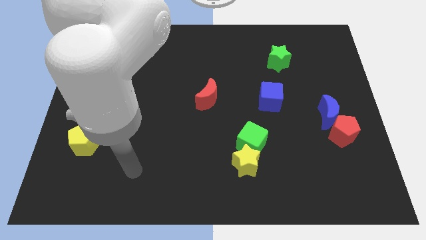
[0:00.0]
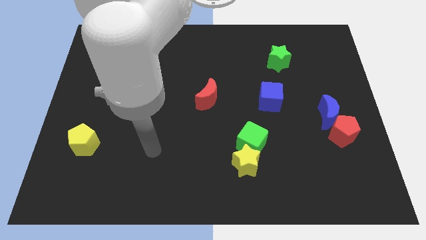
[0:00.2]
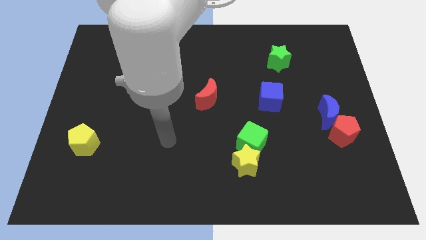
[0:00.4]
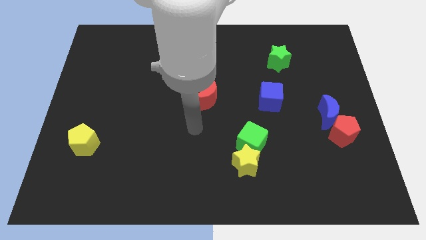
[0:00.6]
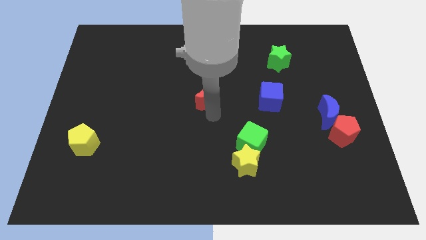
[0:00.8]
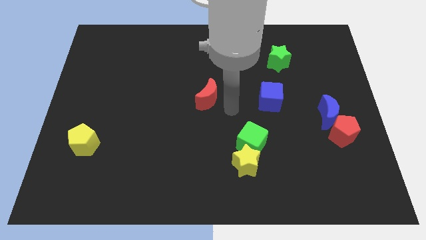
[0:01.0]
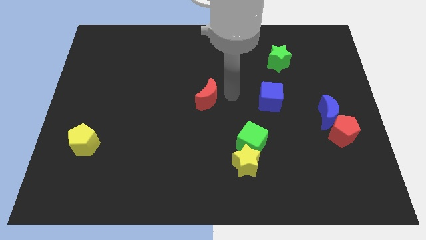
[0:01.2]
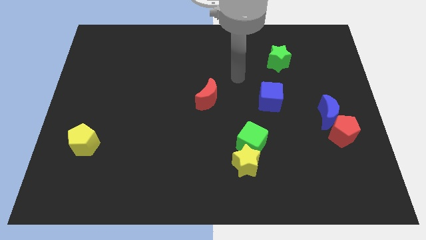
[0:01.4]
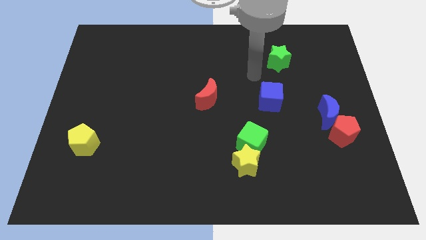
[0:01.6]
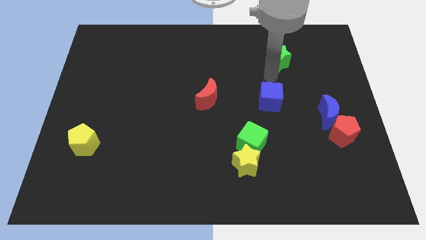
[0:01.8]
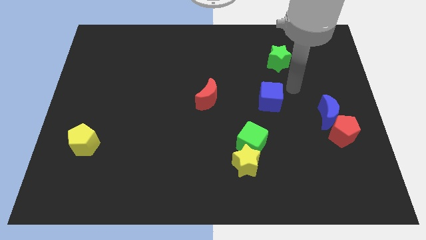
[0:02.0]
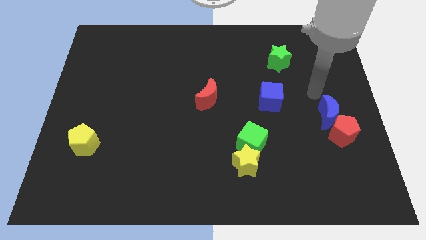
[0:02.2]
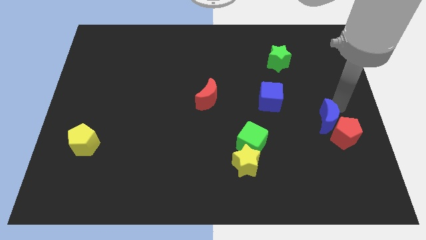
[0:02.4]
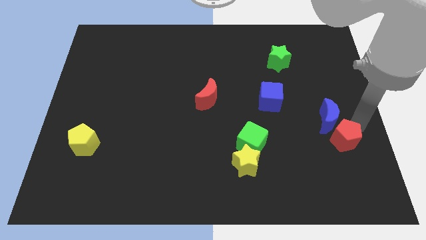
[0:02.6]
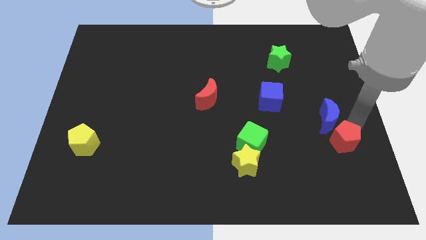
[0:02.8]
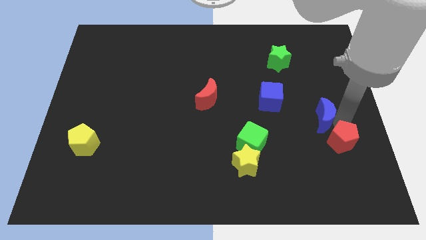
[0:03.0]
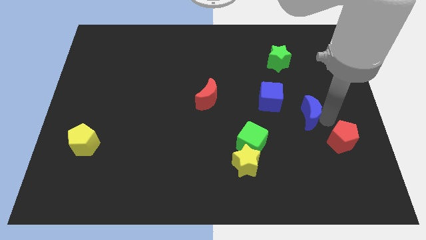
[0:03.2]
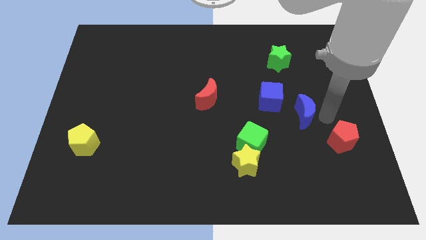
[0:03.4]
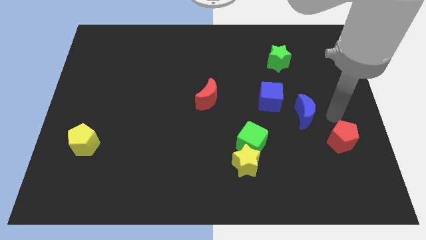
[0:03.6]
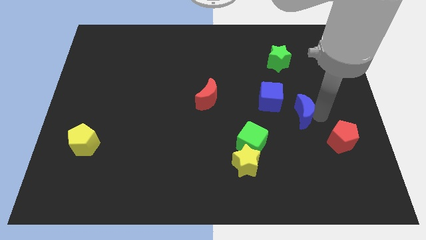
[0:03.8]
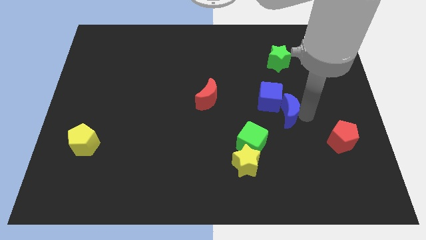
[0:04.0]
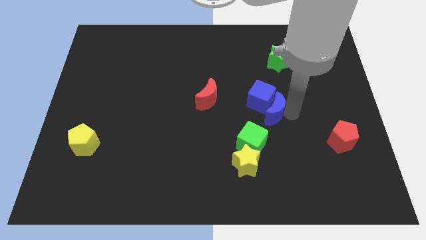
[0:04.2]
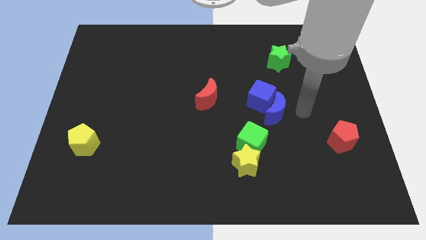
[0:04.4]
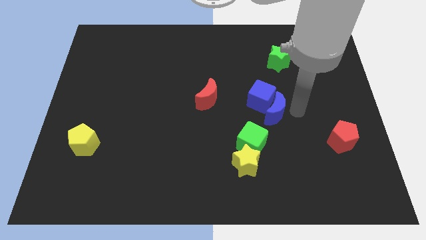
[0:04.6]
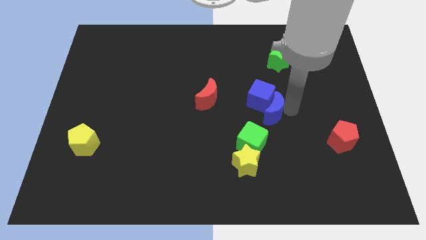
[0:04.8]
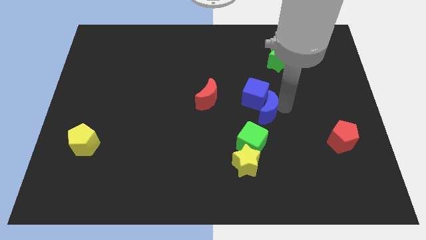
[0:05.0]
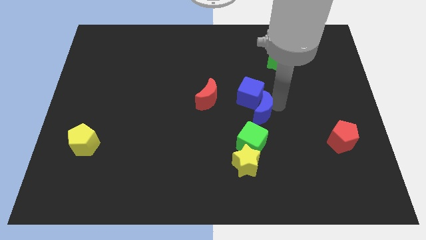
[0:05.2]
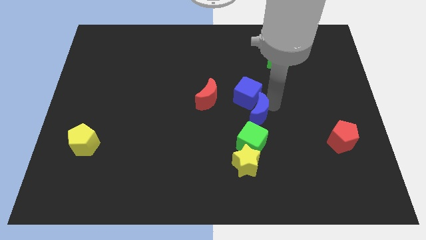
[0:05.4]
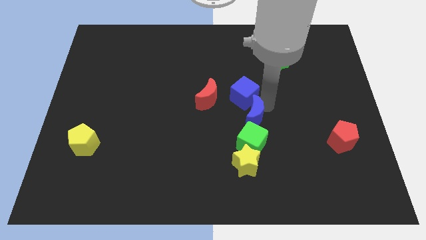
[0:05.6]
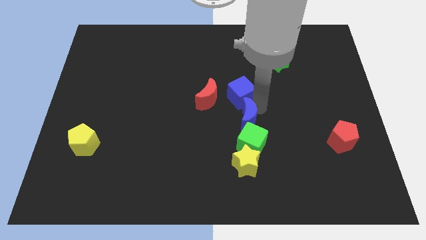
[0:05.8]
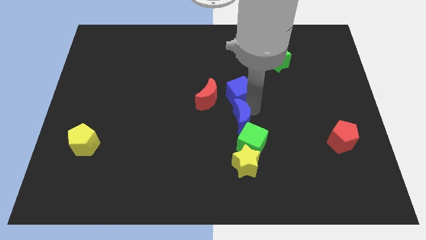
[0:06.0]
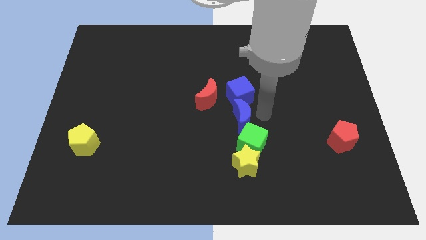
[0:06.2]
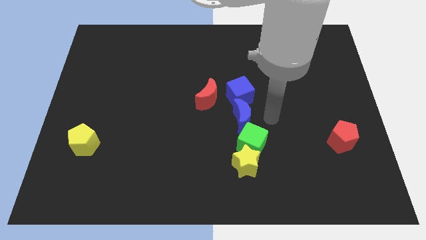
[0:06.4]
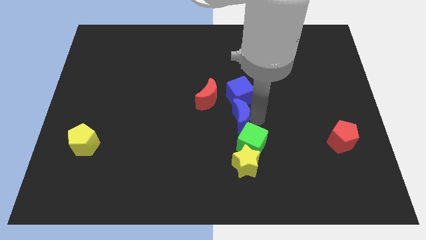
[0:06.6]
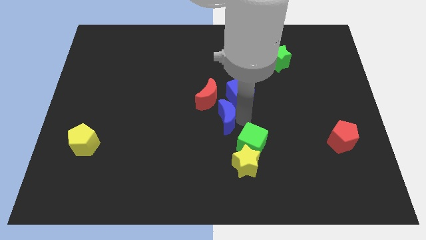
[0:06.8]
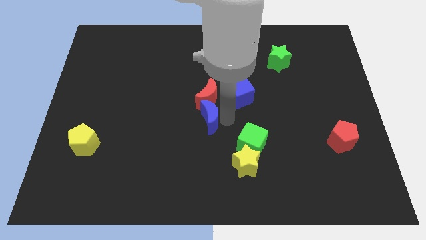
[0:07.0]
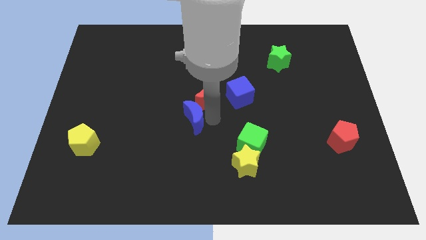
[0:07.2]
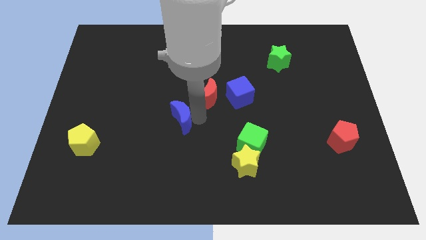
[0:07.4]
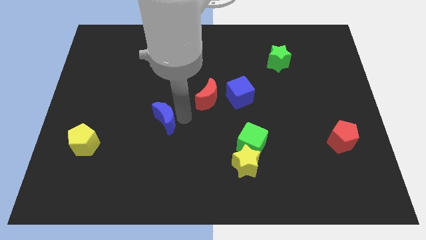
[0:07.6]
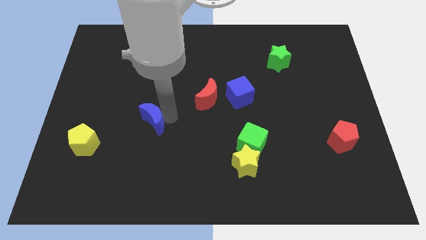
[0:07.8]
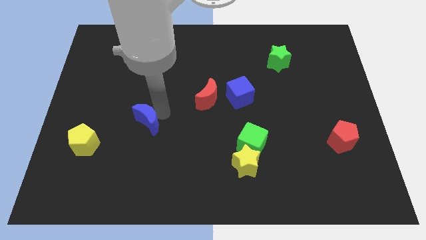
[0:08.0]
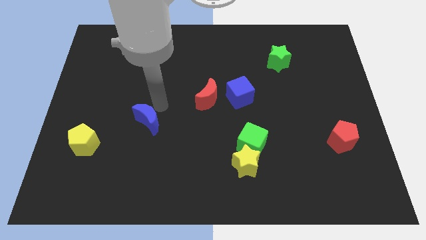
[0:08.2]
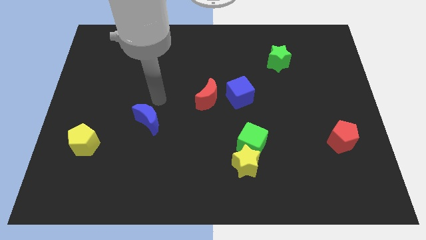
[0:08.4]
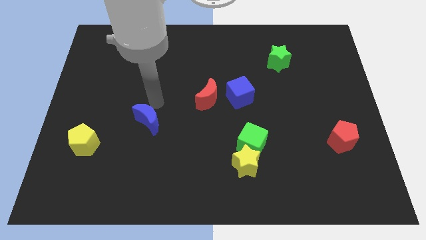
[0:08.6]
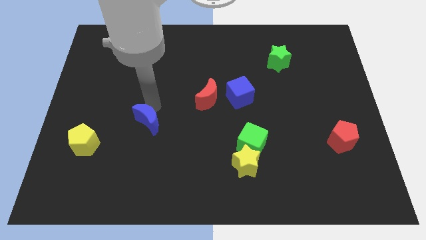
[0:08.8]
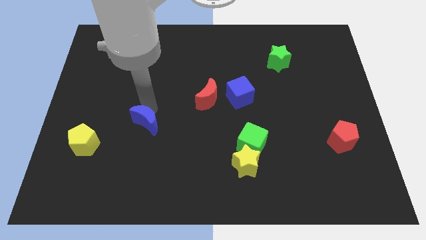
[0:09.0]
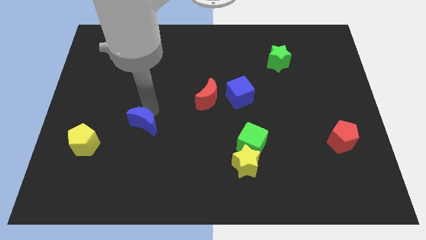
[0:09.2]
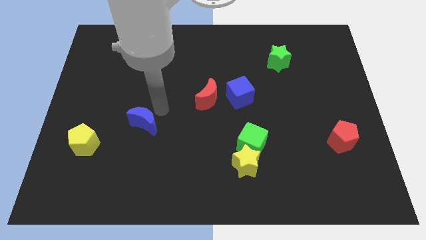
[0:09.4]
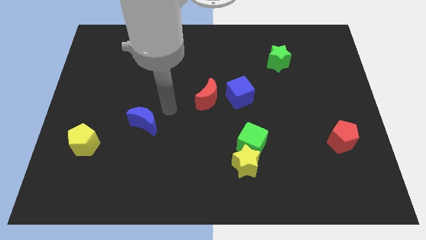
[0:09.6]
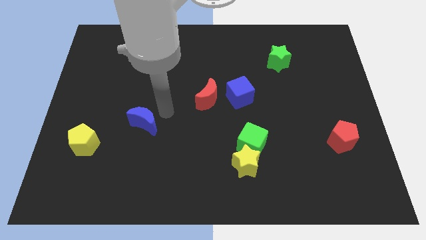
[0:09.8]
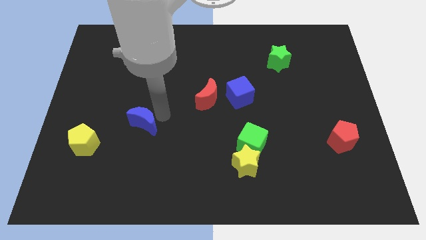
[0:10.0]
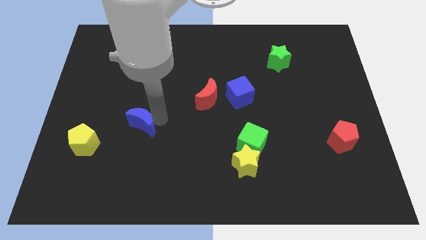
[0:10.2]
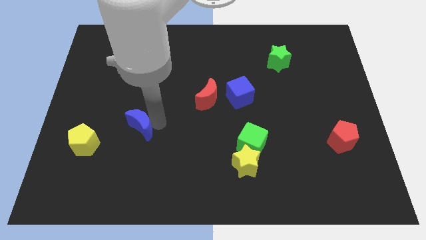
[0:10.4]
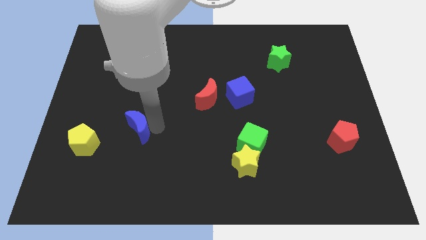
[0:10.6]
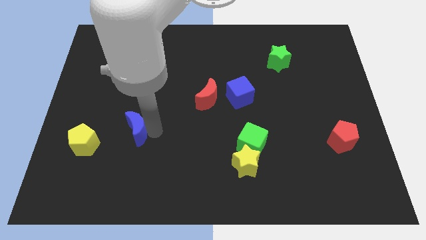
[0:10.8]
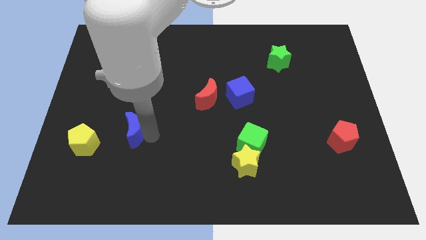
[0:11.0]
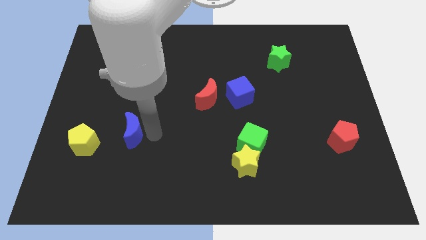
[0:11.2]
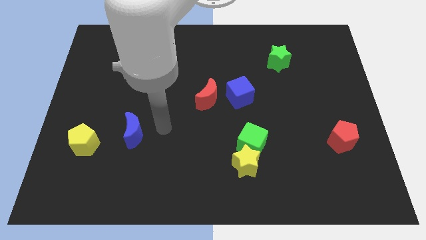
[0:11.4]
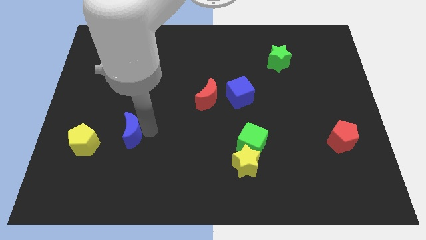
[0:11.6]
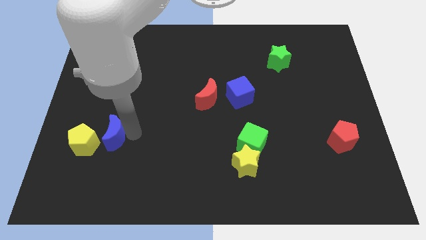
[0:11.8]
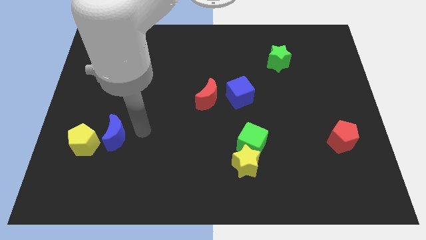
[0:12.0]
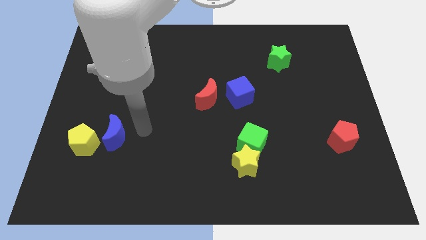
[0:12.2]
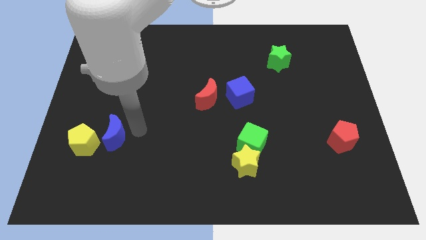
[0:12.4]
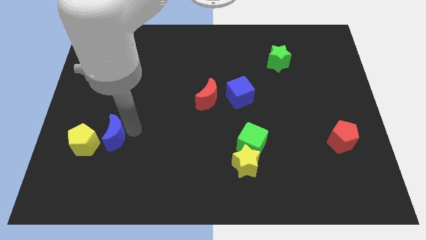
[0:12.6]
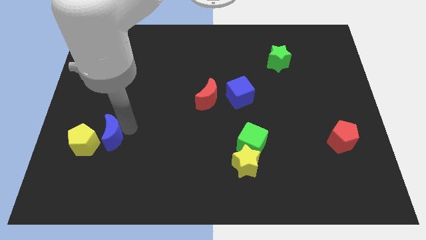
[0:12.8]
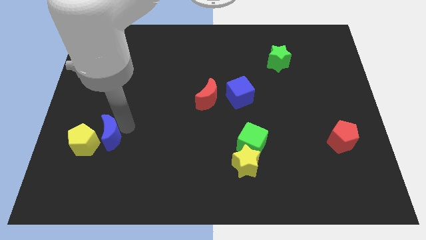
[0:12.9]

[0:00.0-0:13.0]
move the blue moon next to the yellow pentagon

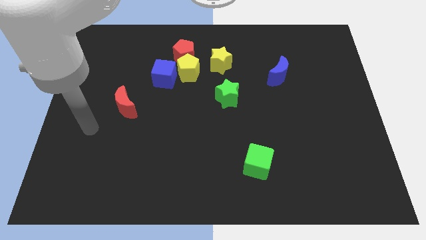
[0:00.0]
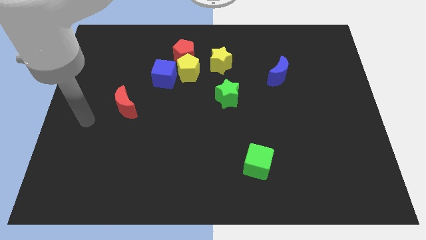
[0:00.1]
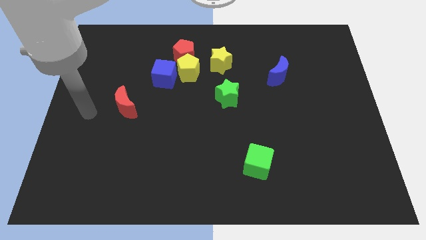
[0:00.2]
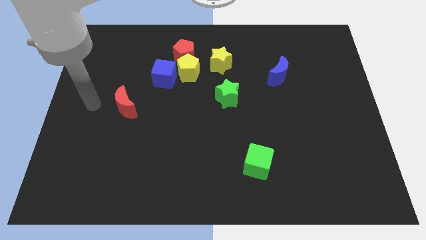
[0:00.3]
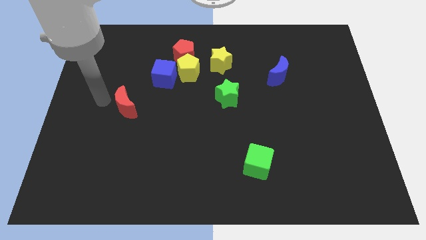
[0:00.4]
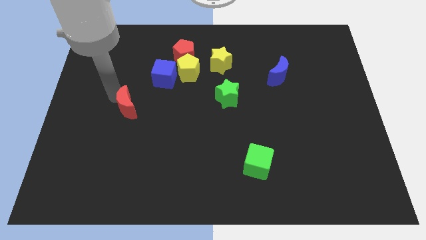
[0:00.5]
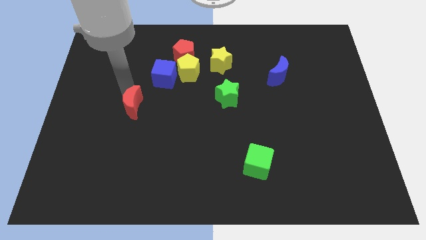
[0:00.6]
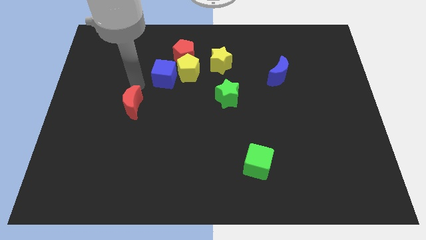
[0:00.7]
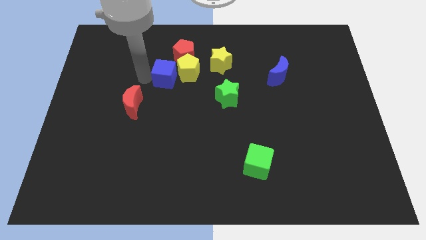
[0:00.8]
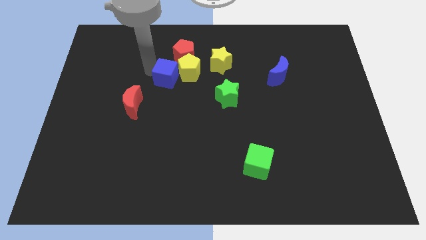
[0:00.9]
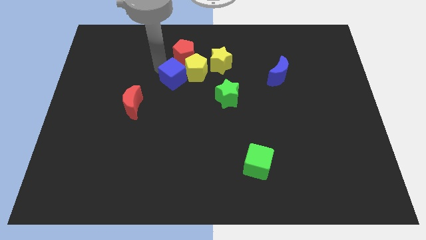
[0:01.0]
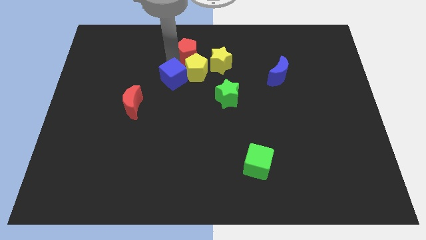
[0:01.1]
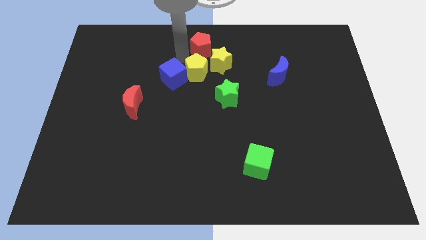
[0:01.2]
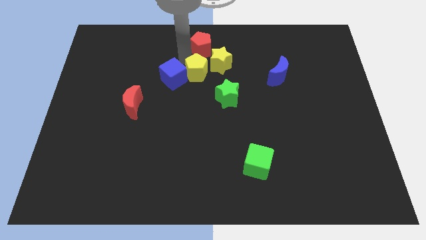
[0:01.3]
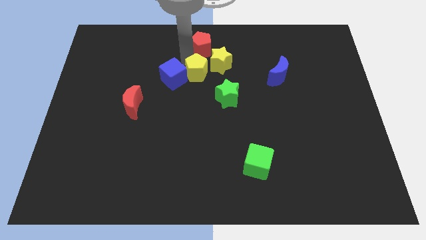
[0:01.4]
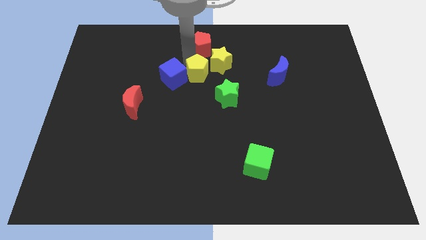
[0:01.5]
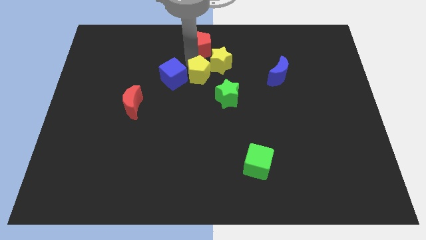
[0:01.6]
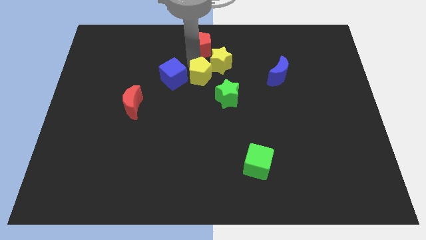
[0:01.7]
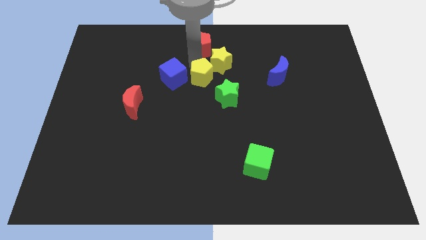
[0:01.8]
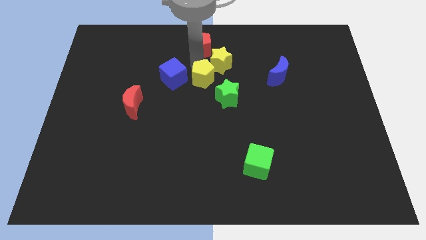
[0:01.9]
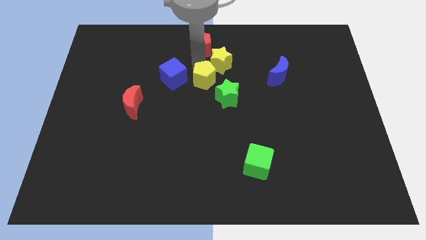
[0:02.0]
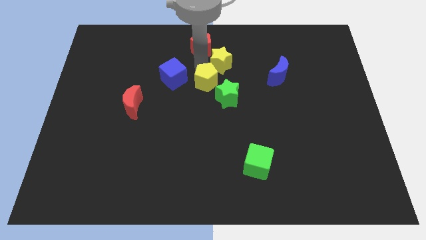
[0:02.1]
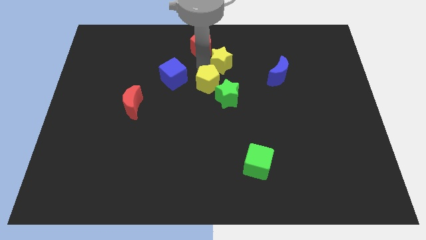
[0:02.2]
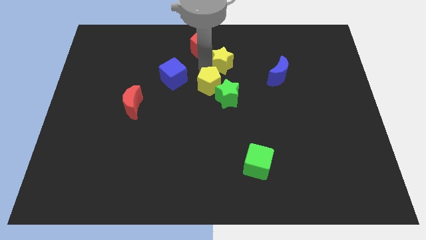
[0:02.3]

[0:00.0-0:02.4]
put the yellow pentagon to the green star
